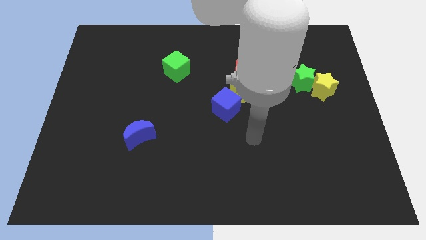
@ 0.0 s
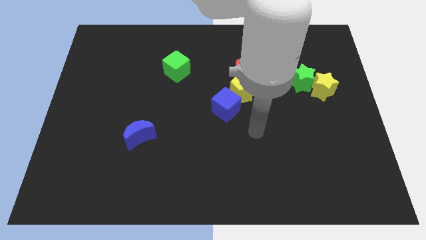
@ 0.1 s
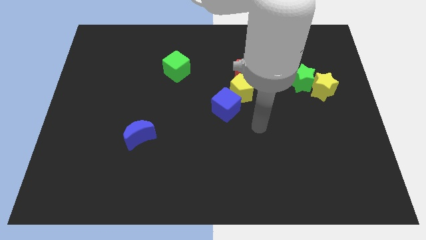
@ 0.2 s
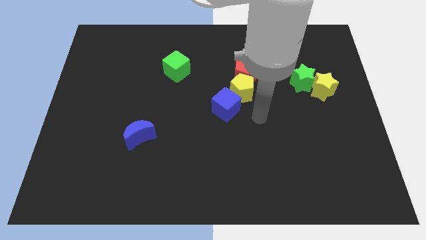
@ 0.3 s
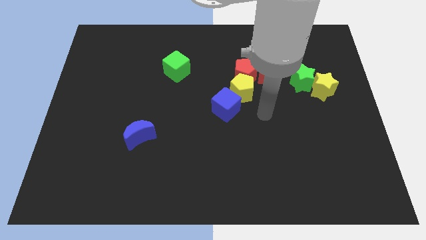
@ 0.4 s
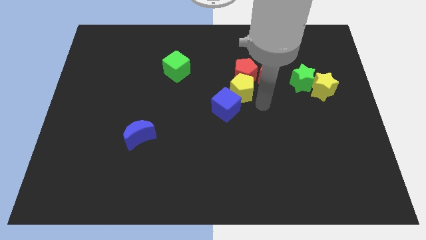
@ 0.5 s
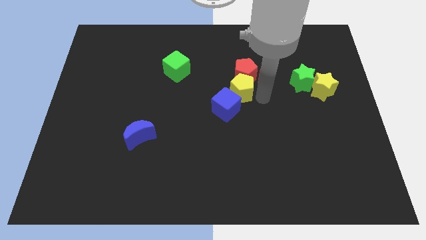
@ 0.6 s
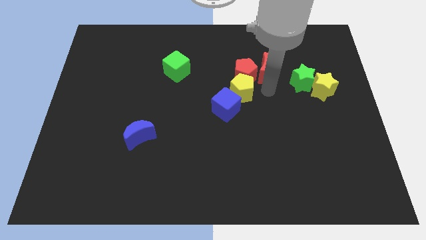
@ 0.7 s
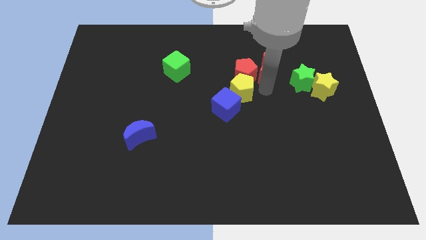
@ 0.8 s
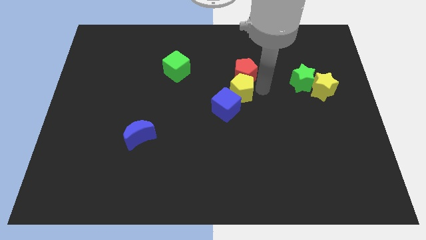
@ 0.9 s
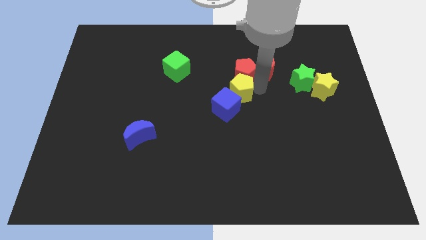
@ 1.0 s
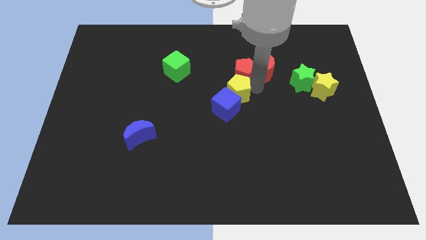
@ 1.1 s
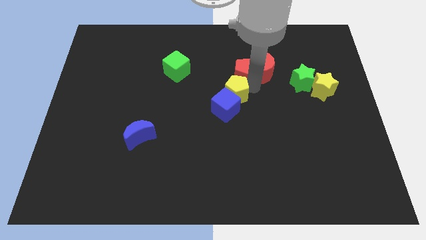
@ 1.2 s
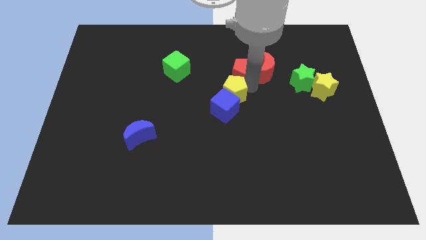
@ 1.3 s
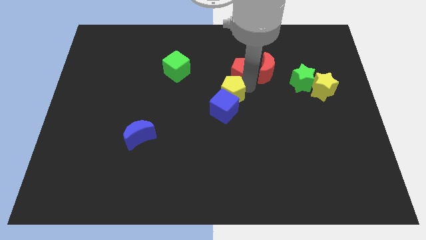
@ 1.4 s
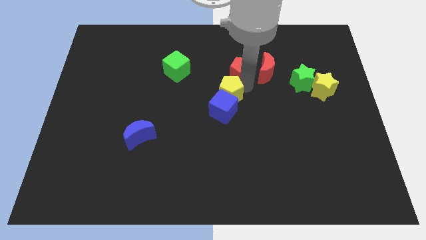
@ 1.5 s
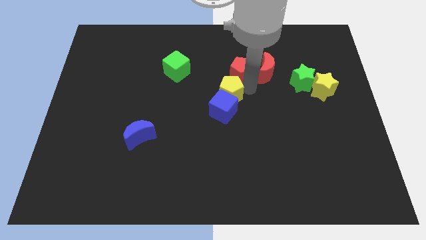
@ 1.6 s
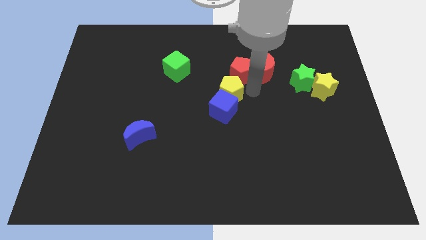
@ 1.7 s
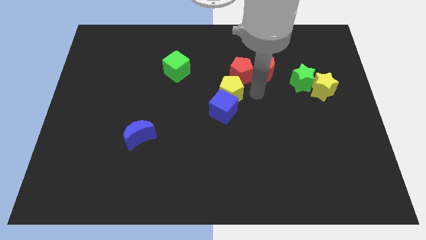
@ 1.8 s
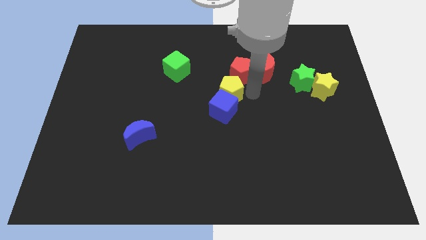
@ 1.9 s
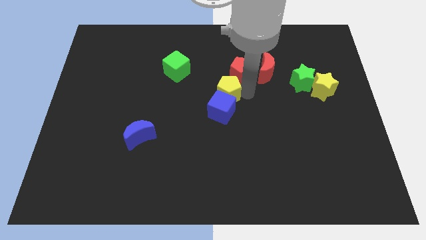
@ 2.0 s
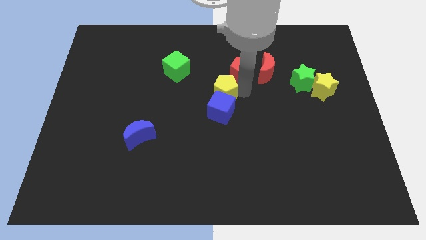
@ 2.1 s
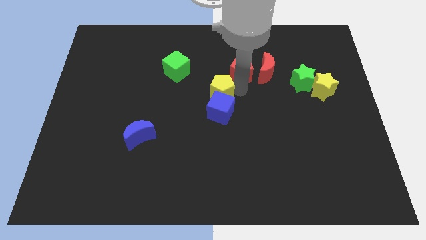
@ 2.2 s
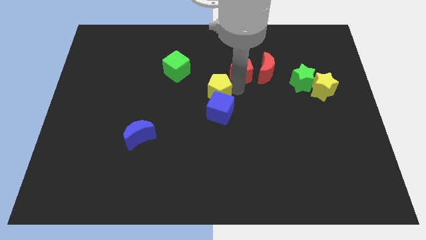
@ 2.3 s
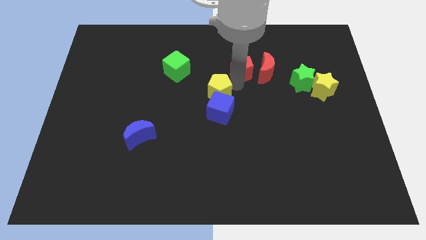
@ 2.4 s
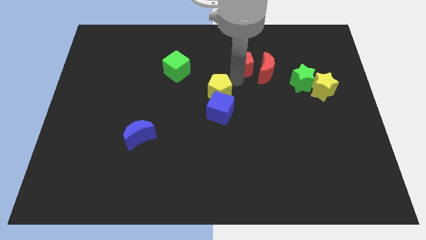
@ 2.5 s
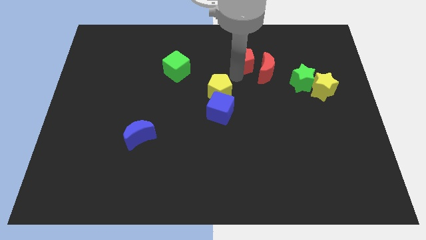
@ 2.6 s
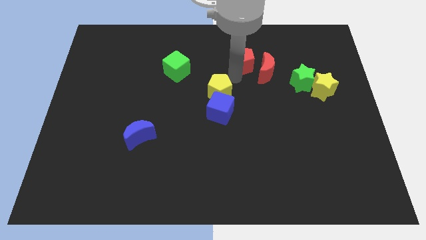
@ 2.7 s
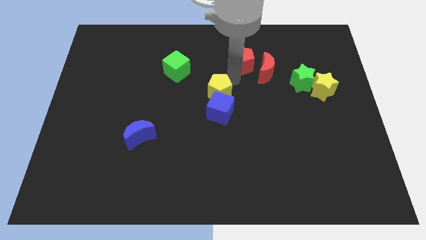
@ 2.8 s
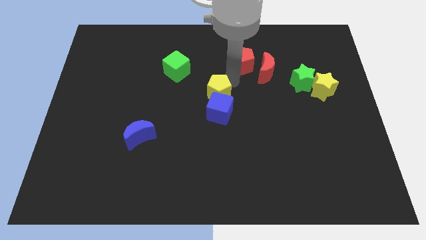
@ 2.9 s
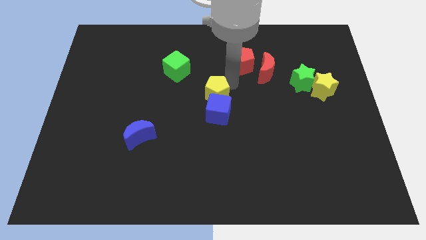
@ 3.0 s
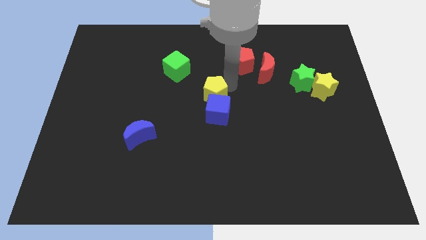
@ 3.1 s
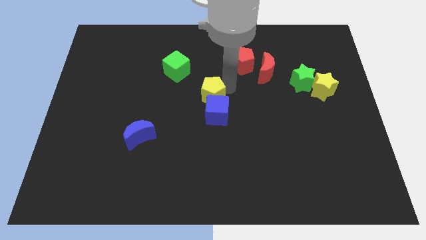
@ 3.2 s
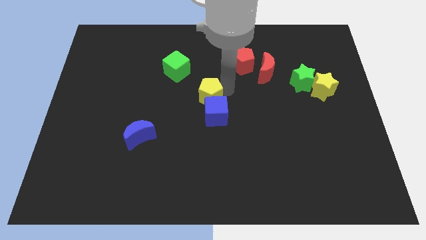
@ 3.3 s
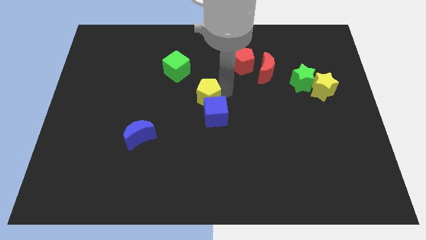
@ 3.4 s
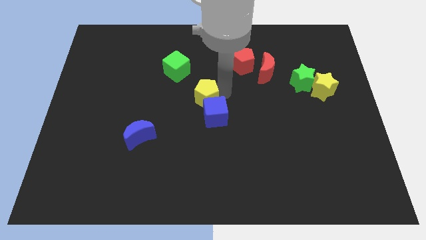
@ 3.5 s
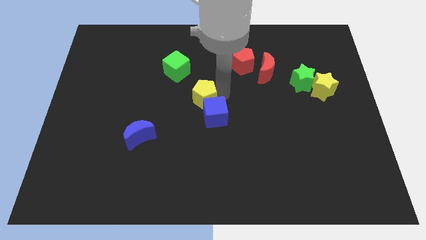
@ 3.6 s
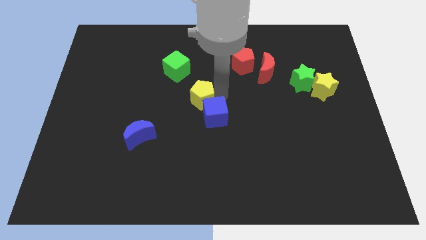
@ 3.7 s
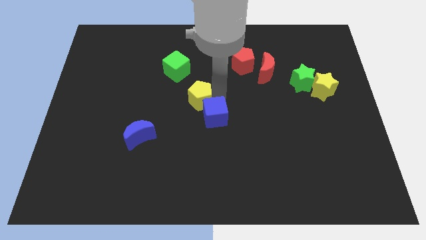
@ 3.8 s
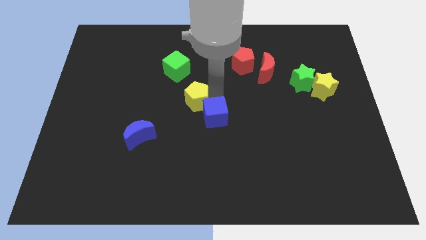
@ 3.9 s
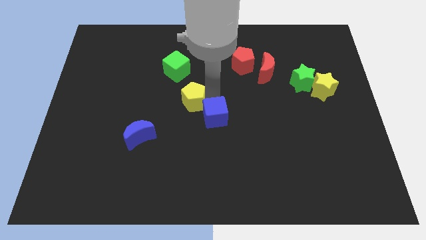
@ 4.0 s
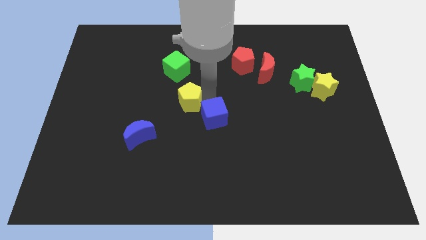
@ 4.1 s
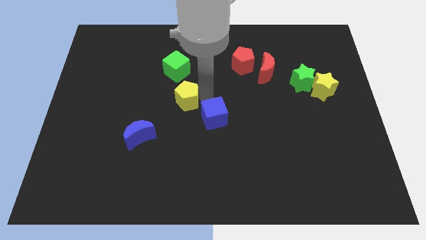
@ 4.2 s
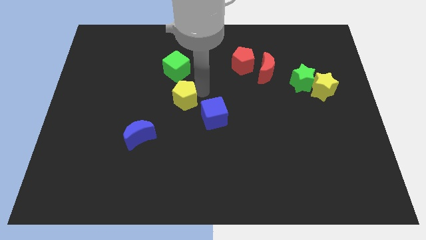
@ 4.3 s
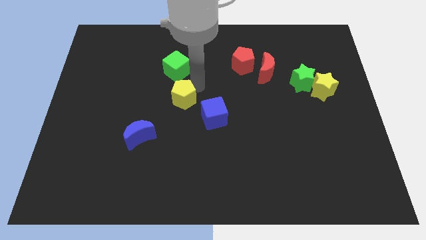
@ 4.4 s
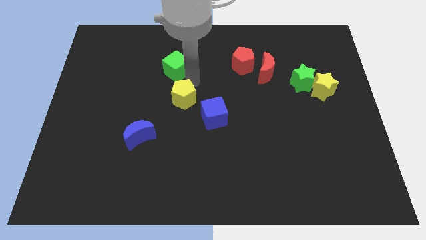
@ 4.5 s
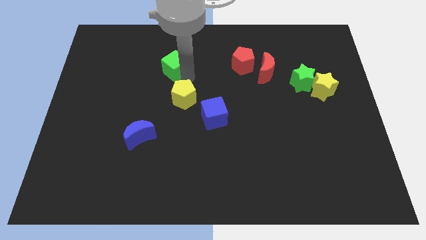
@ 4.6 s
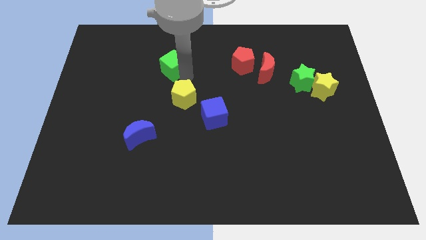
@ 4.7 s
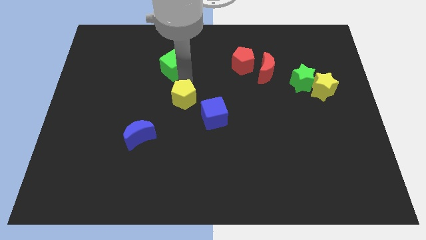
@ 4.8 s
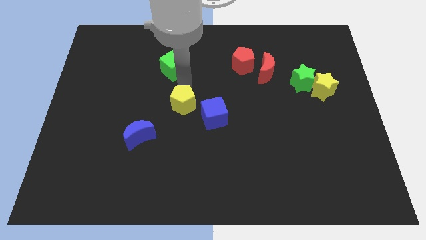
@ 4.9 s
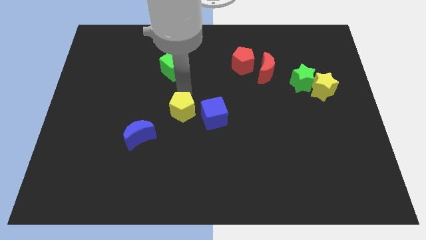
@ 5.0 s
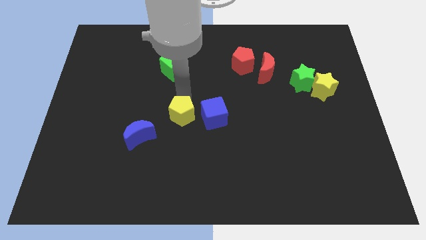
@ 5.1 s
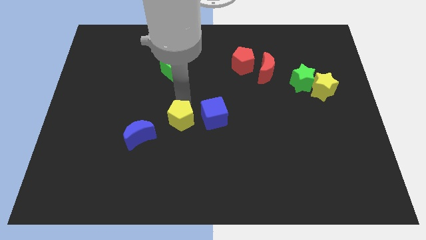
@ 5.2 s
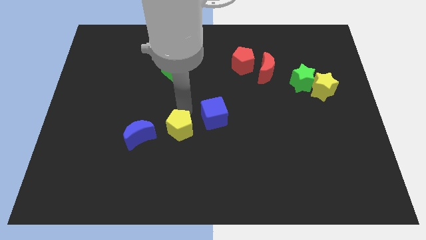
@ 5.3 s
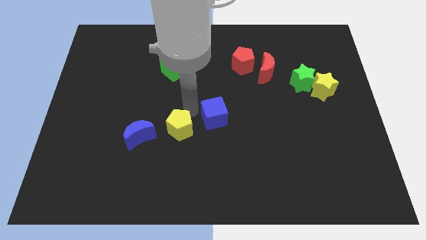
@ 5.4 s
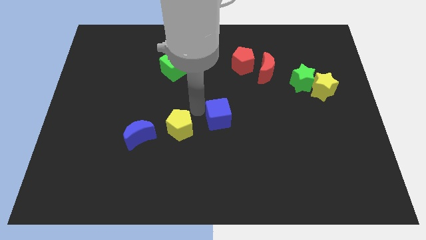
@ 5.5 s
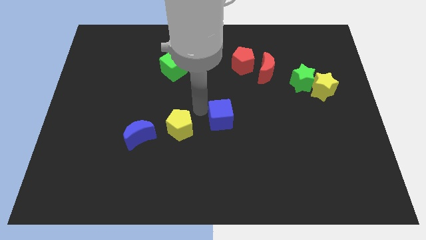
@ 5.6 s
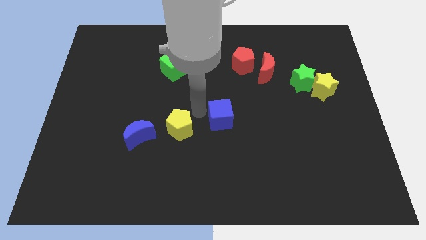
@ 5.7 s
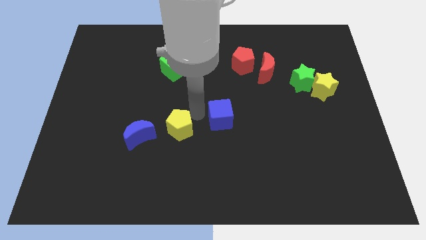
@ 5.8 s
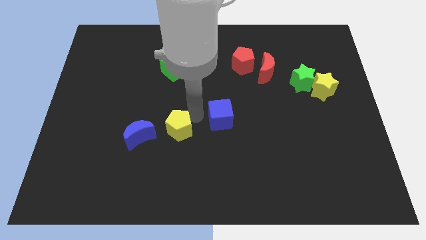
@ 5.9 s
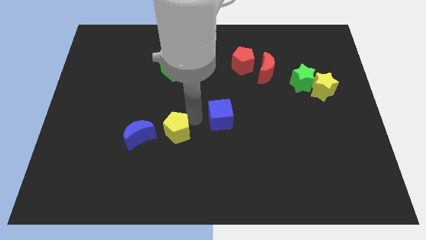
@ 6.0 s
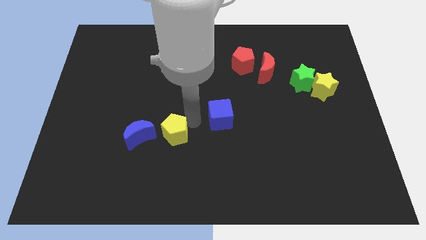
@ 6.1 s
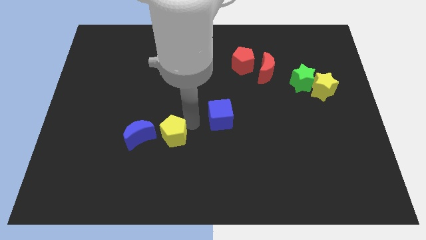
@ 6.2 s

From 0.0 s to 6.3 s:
slide the yellow pentagon downwards and then to the left

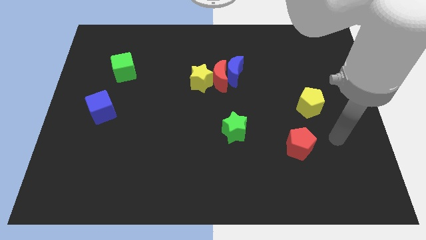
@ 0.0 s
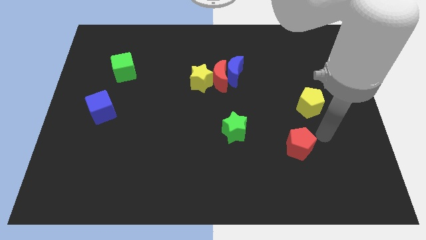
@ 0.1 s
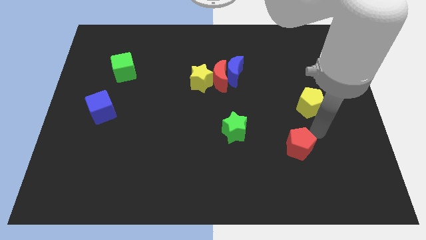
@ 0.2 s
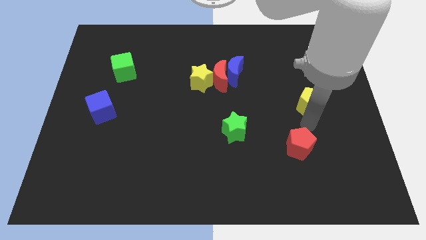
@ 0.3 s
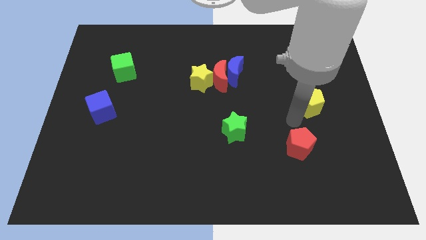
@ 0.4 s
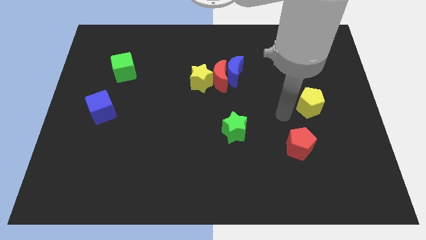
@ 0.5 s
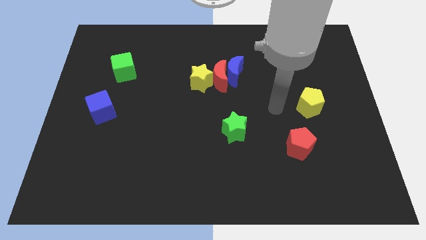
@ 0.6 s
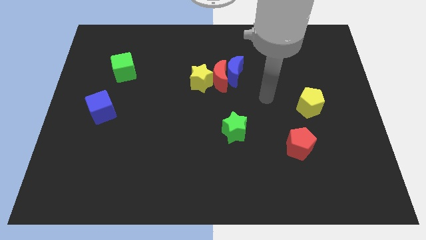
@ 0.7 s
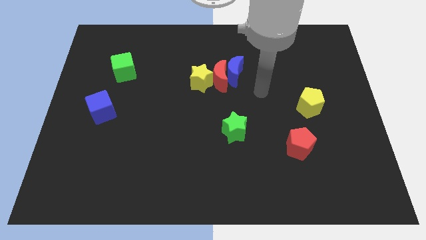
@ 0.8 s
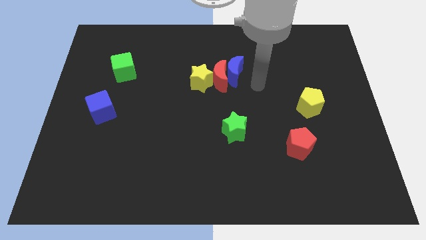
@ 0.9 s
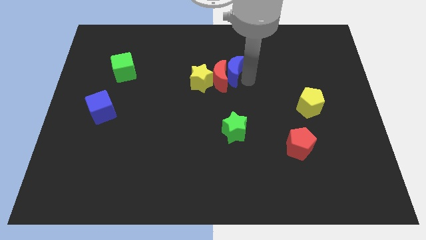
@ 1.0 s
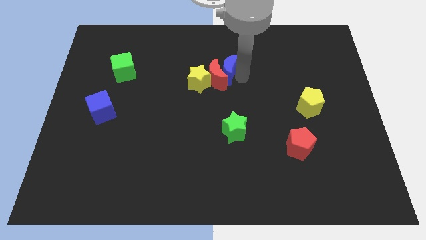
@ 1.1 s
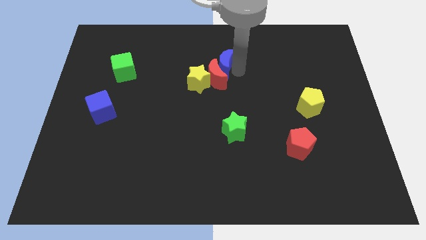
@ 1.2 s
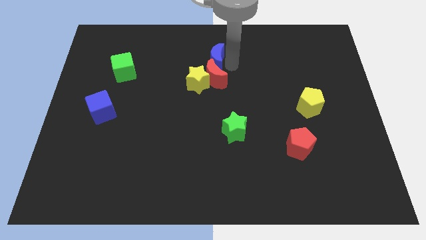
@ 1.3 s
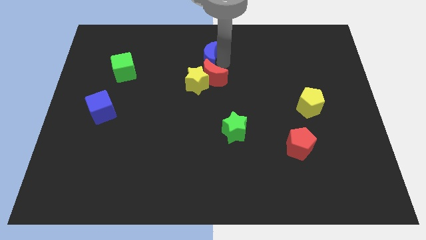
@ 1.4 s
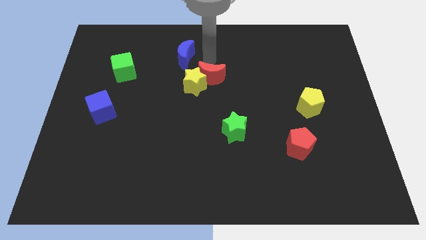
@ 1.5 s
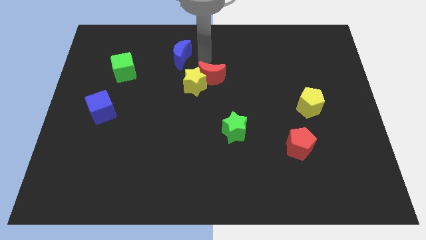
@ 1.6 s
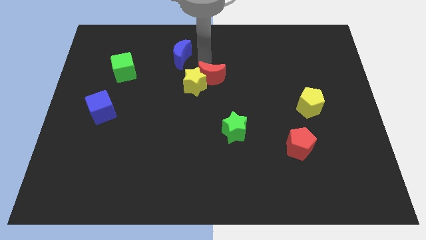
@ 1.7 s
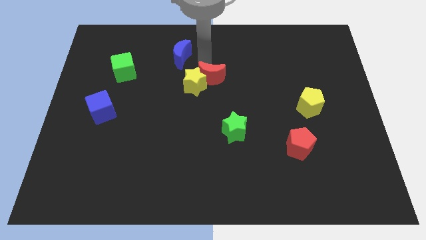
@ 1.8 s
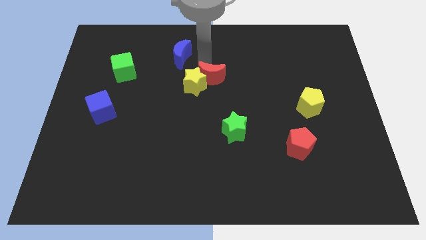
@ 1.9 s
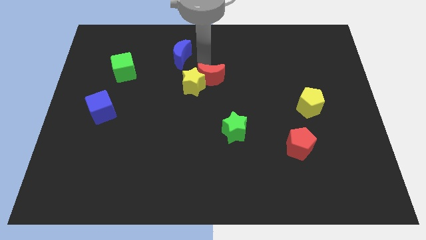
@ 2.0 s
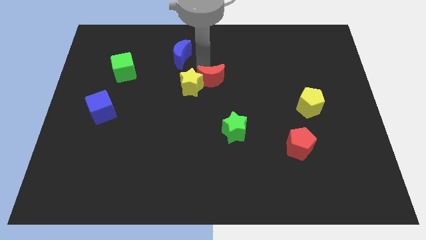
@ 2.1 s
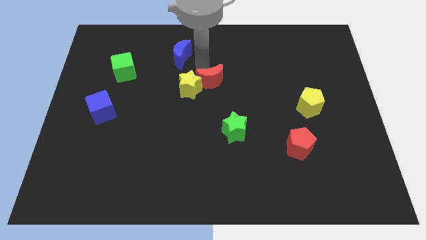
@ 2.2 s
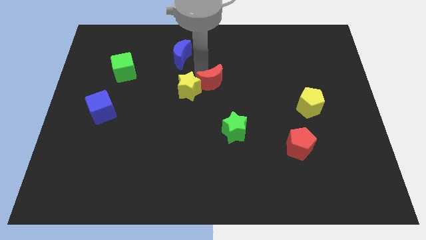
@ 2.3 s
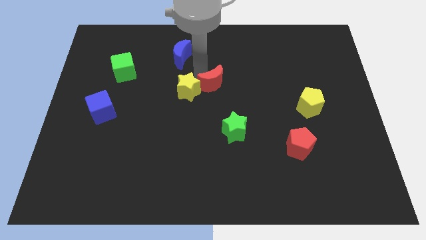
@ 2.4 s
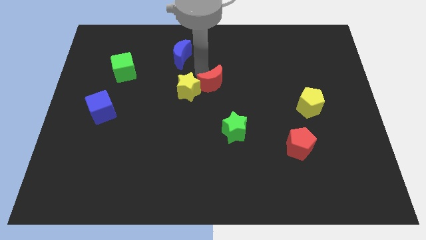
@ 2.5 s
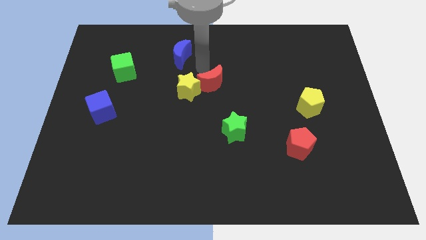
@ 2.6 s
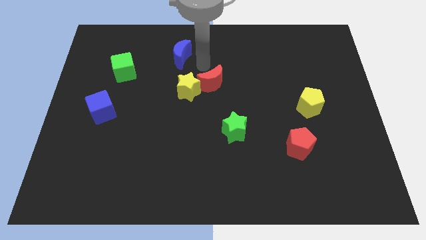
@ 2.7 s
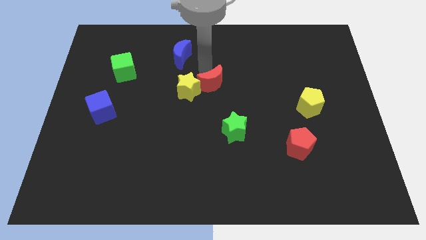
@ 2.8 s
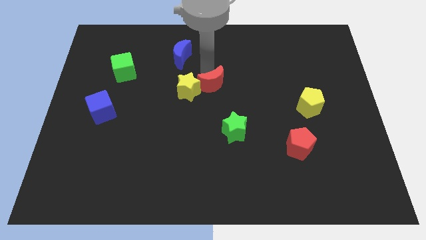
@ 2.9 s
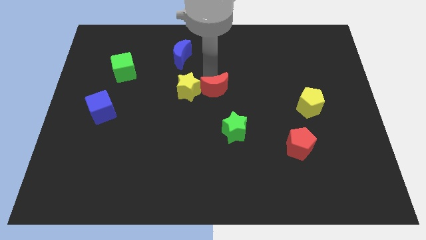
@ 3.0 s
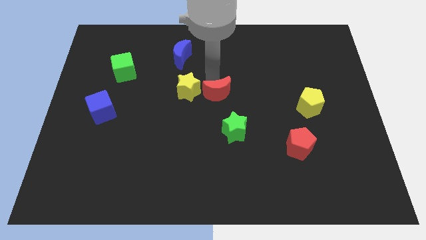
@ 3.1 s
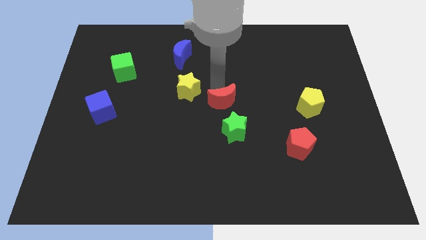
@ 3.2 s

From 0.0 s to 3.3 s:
push the red moon downwards a little bit
